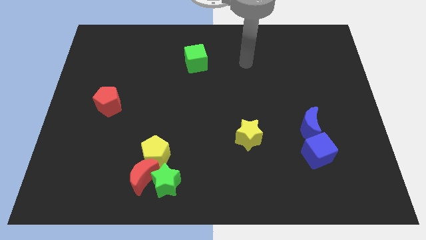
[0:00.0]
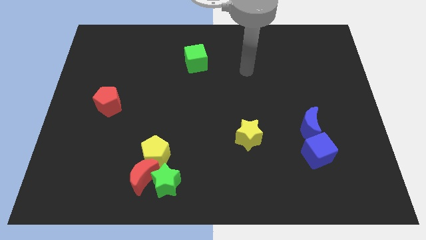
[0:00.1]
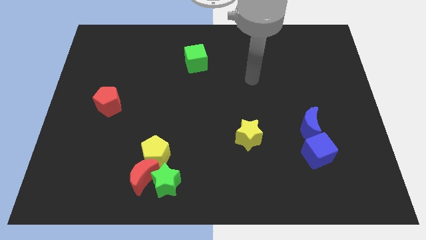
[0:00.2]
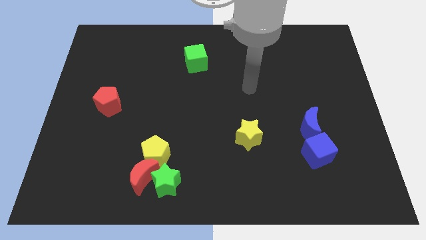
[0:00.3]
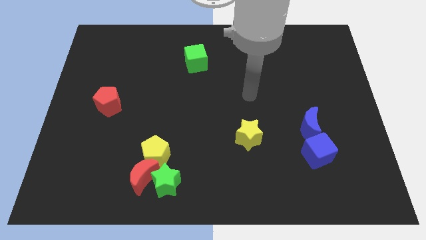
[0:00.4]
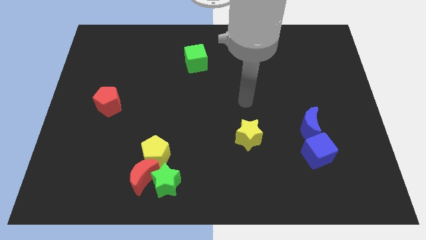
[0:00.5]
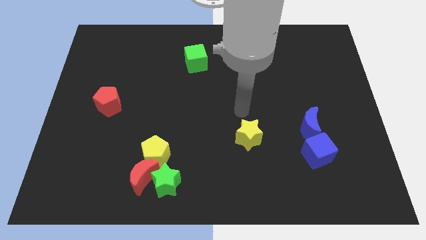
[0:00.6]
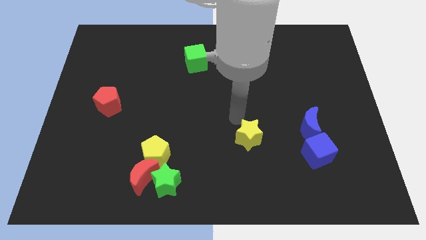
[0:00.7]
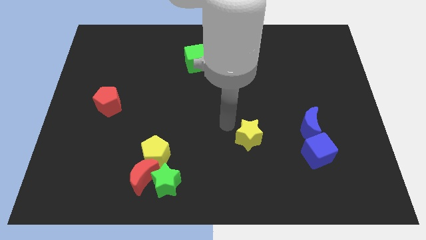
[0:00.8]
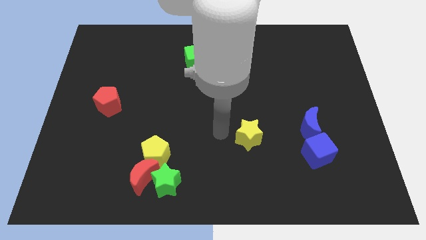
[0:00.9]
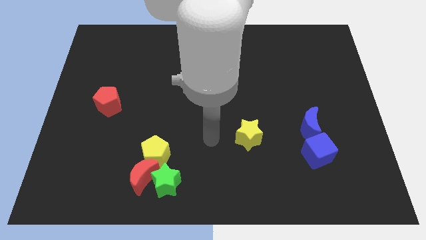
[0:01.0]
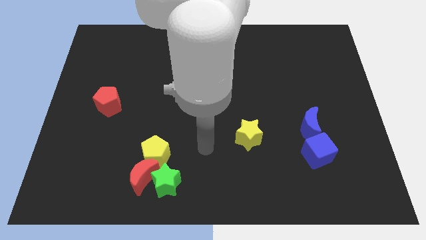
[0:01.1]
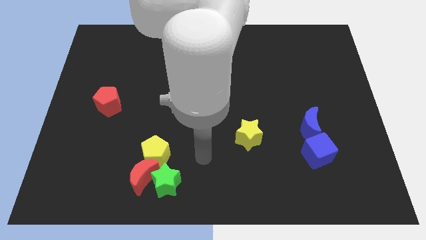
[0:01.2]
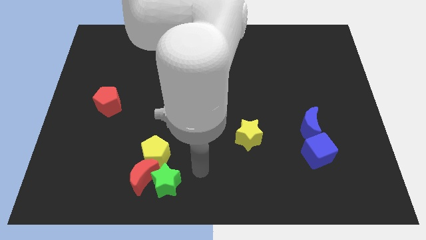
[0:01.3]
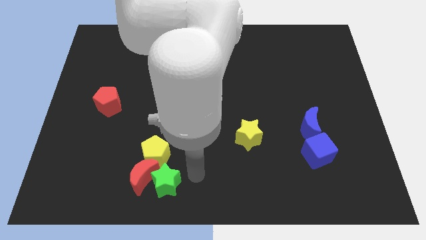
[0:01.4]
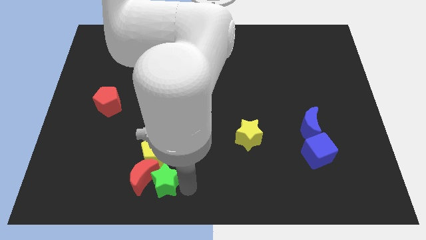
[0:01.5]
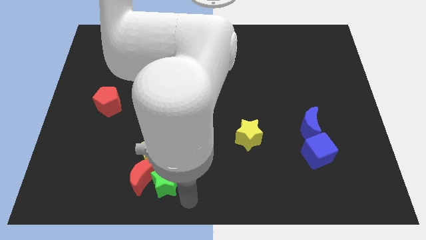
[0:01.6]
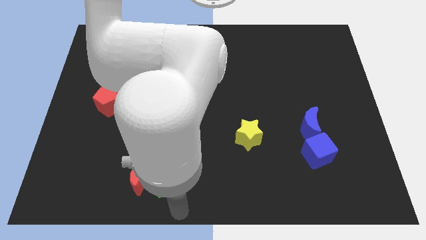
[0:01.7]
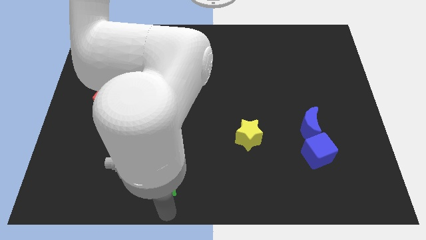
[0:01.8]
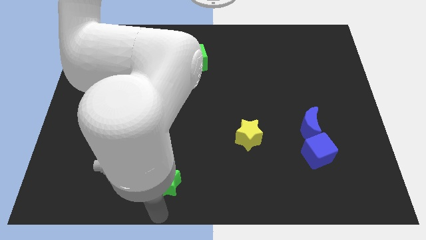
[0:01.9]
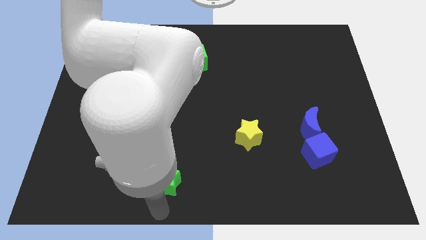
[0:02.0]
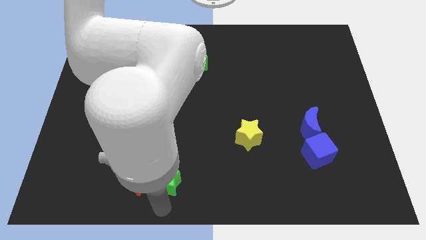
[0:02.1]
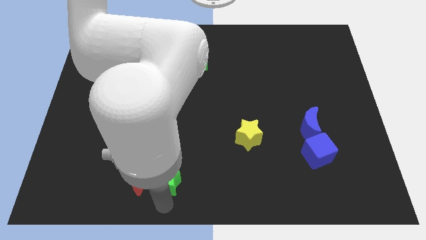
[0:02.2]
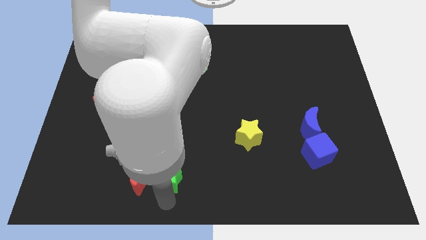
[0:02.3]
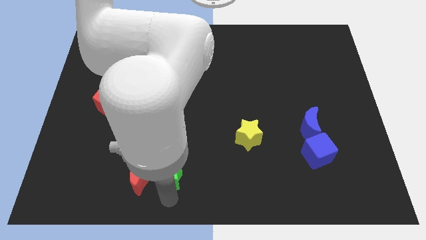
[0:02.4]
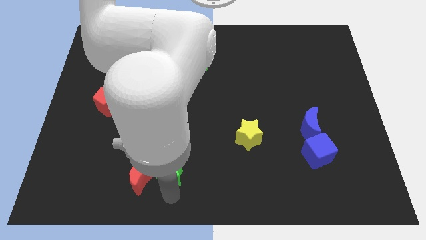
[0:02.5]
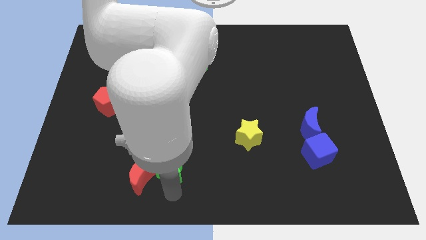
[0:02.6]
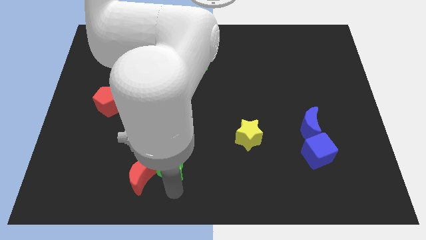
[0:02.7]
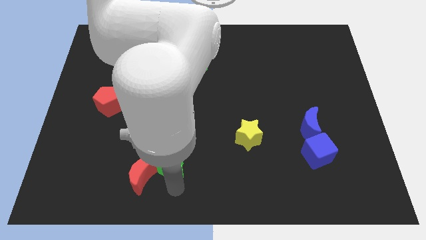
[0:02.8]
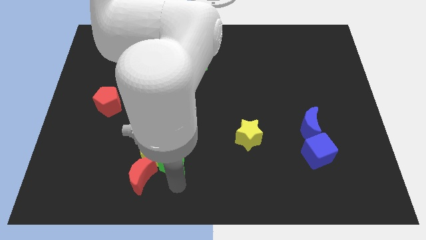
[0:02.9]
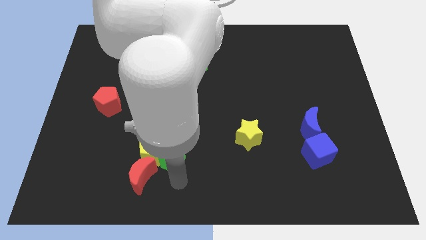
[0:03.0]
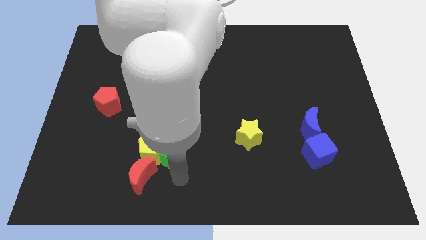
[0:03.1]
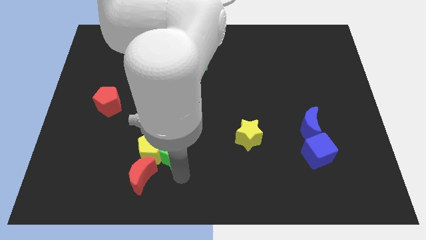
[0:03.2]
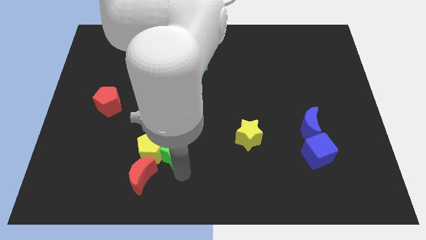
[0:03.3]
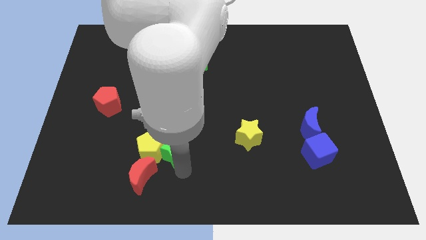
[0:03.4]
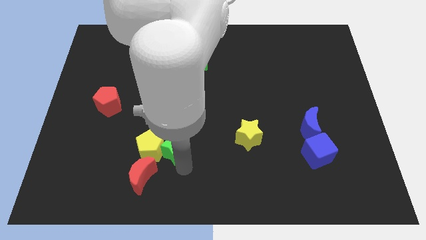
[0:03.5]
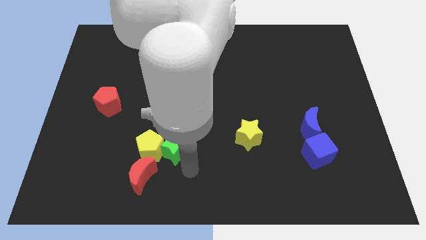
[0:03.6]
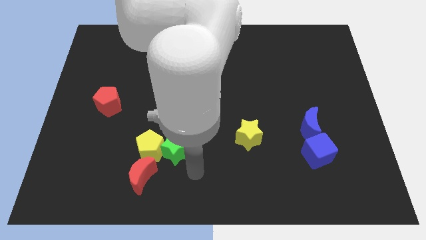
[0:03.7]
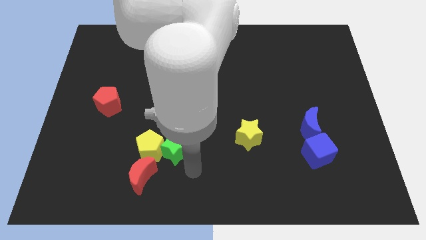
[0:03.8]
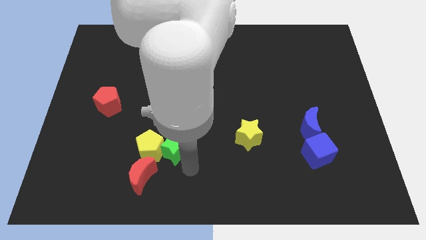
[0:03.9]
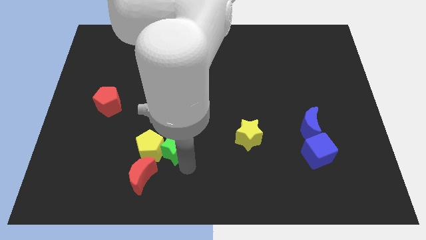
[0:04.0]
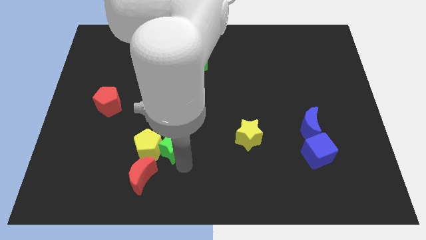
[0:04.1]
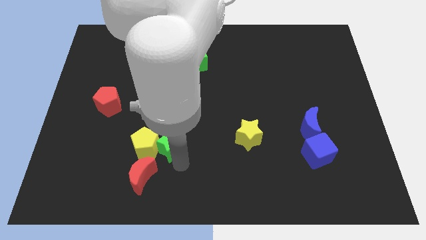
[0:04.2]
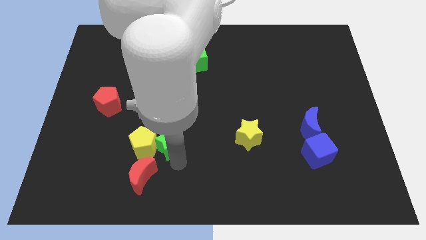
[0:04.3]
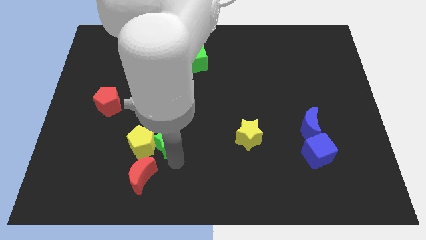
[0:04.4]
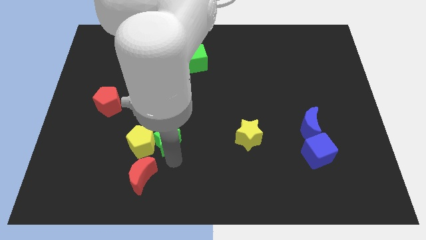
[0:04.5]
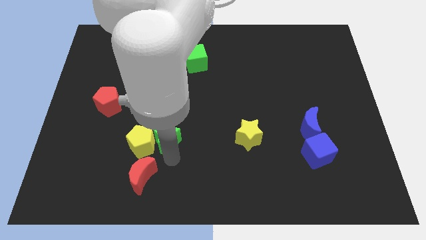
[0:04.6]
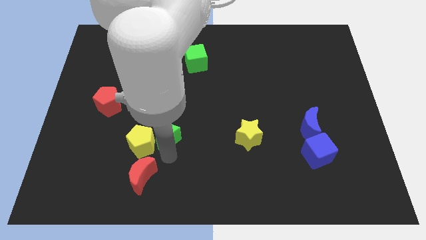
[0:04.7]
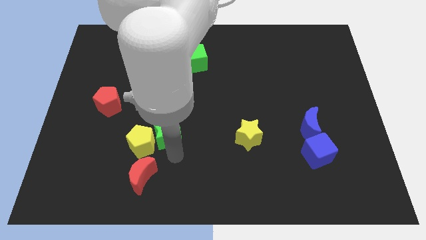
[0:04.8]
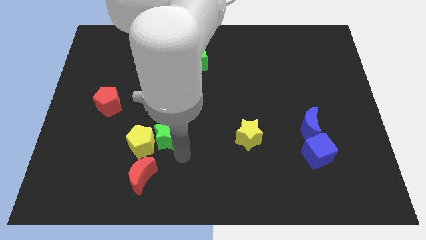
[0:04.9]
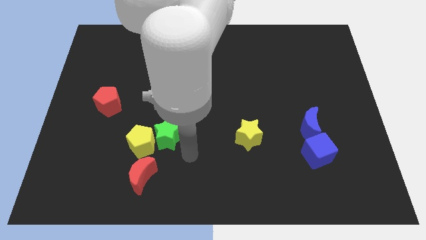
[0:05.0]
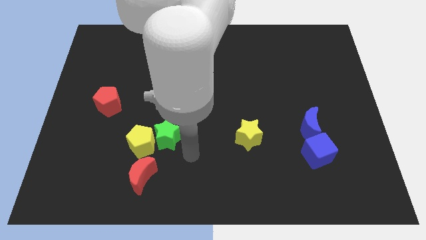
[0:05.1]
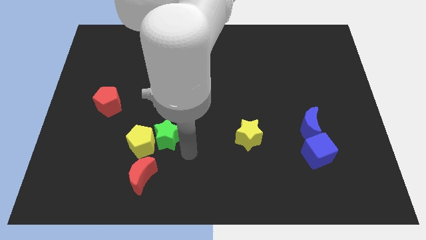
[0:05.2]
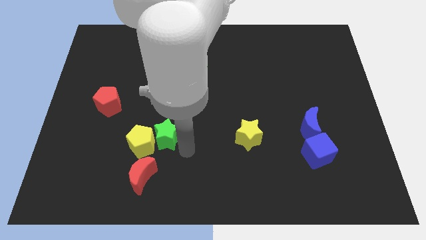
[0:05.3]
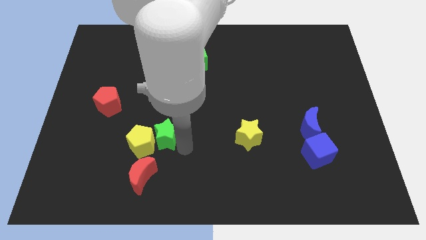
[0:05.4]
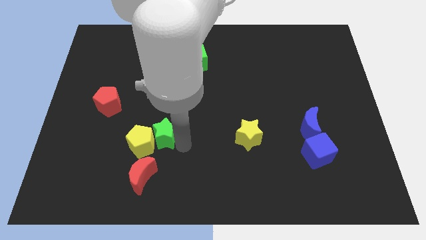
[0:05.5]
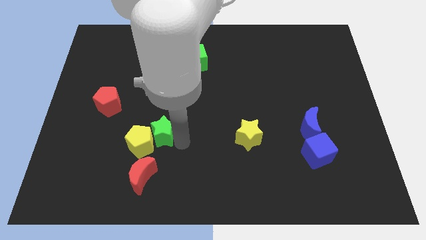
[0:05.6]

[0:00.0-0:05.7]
slide the green star a little upwards and to the left diagonally

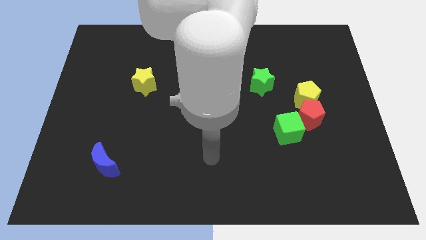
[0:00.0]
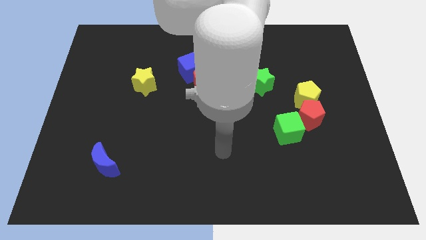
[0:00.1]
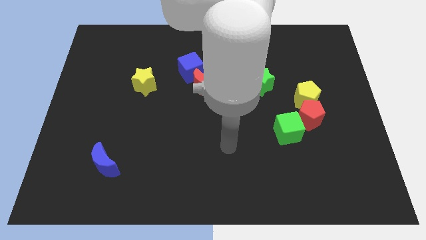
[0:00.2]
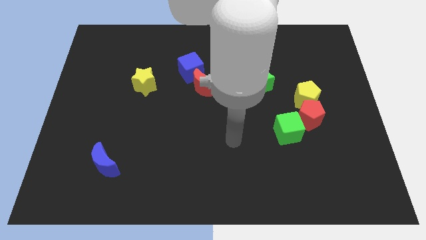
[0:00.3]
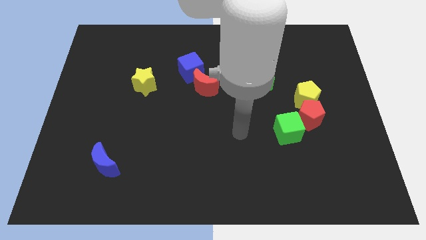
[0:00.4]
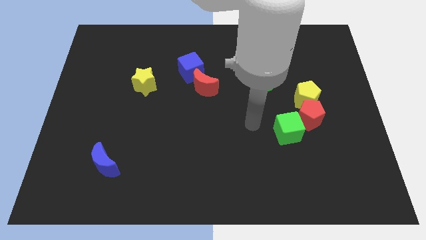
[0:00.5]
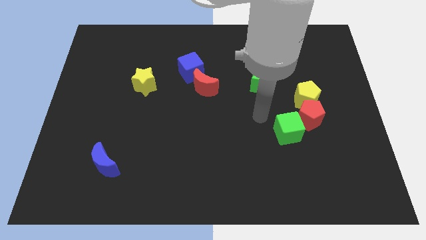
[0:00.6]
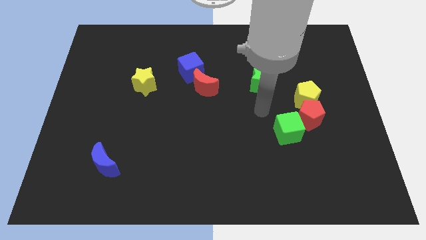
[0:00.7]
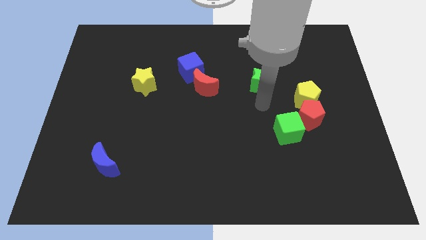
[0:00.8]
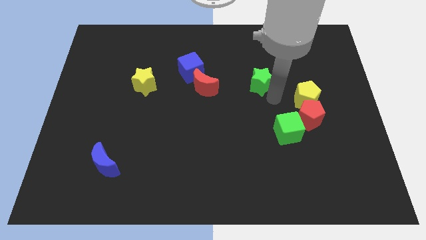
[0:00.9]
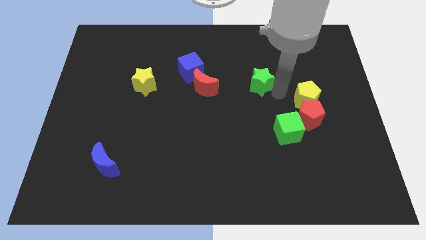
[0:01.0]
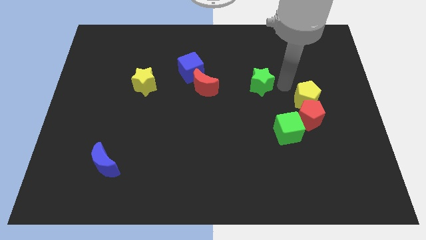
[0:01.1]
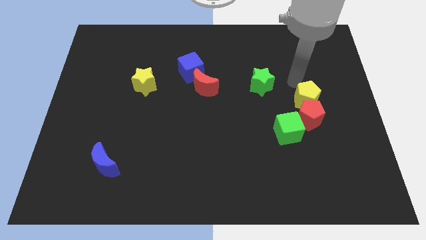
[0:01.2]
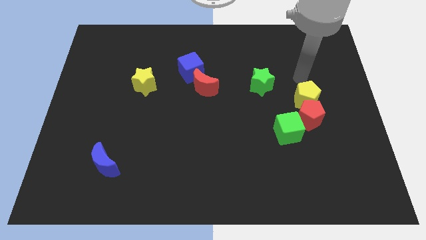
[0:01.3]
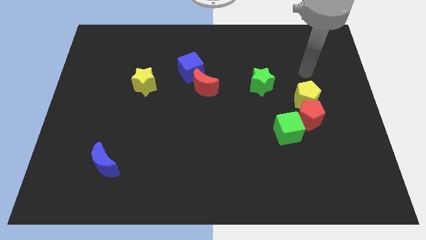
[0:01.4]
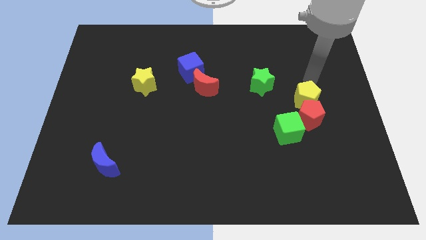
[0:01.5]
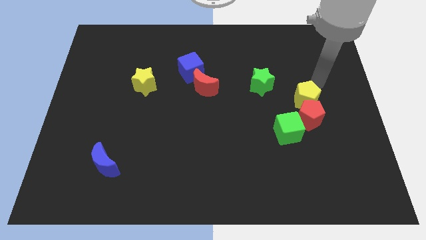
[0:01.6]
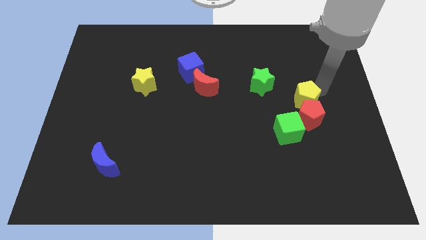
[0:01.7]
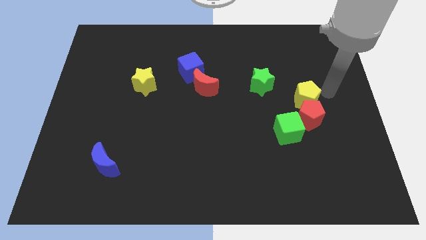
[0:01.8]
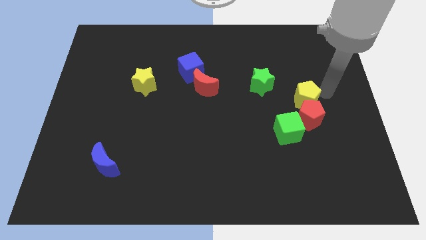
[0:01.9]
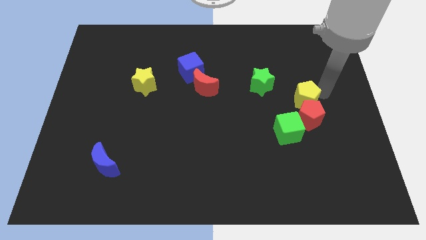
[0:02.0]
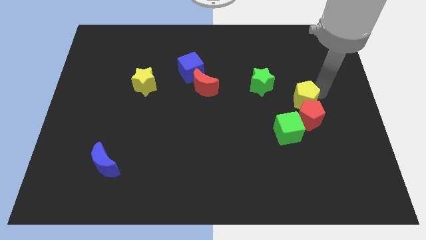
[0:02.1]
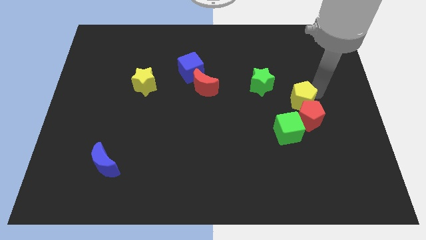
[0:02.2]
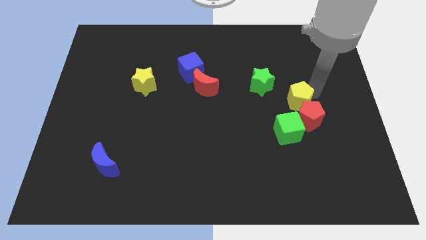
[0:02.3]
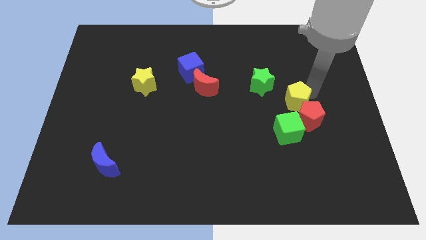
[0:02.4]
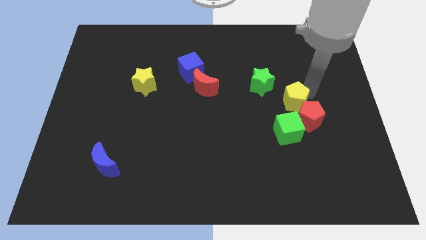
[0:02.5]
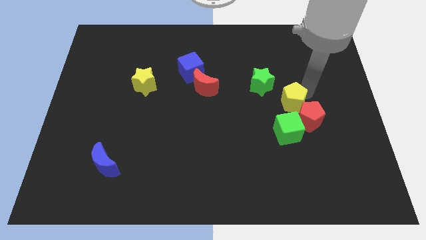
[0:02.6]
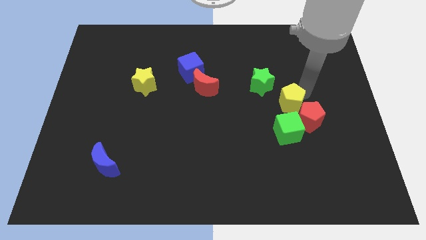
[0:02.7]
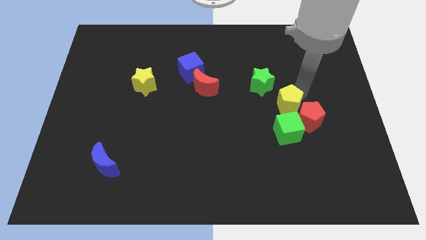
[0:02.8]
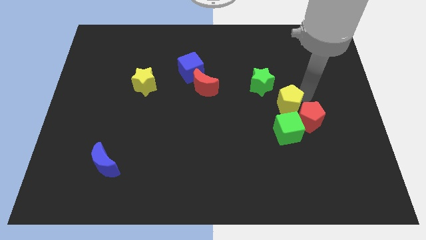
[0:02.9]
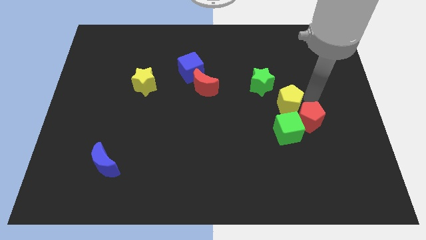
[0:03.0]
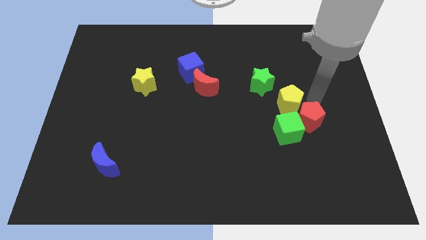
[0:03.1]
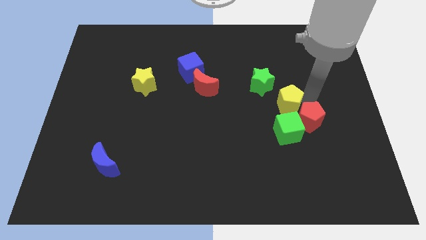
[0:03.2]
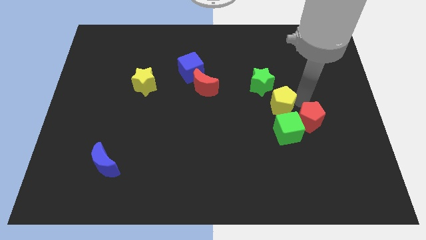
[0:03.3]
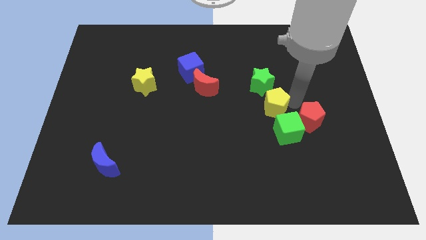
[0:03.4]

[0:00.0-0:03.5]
slightly move the yellow pentagon to the left
